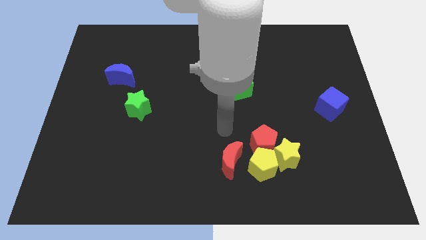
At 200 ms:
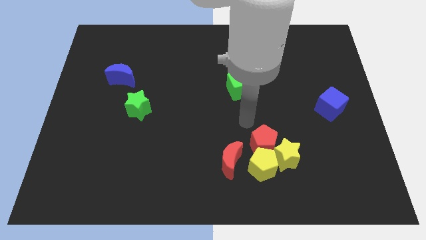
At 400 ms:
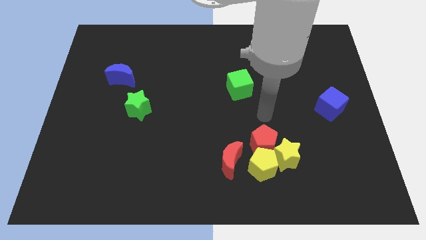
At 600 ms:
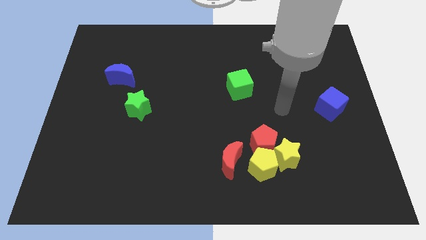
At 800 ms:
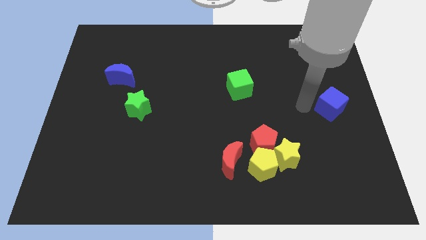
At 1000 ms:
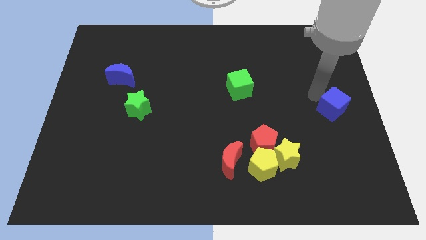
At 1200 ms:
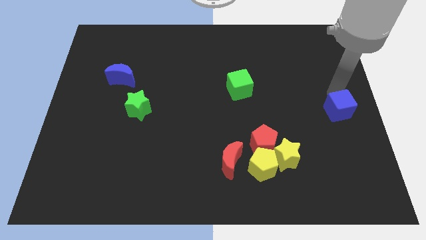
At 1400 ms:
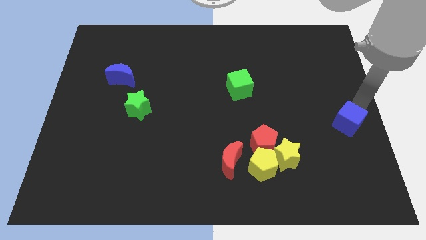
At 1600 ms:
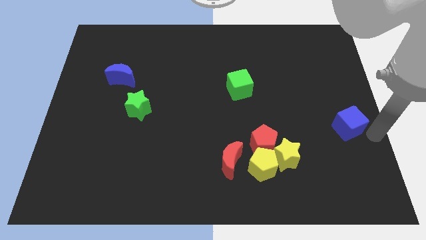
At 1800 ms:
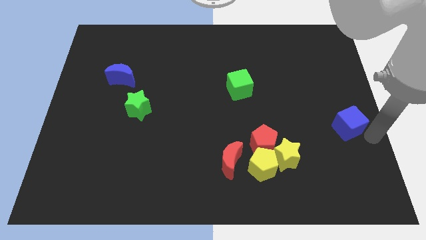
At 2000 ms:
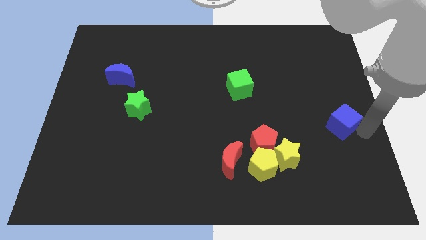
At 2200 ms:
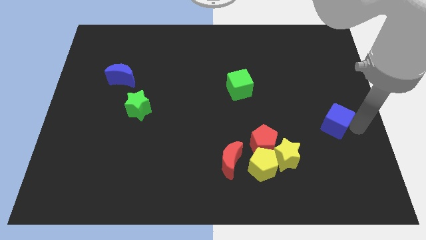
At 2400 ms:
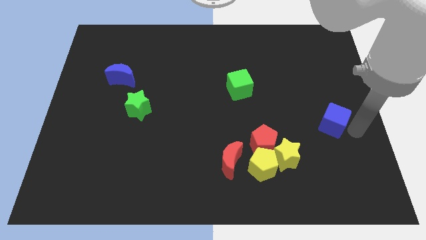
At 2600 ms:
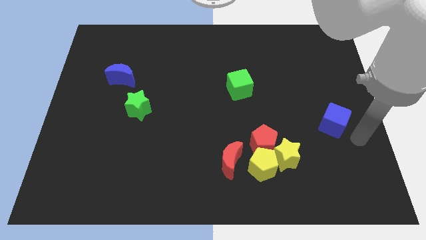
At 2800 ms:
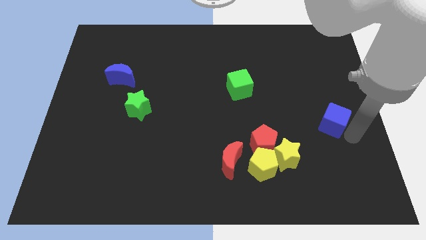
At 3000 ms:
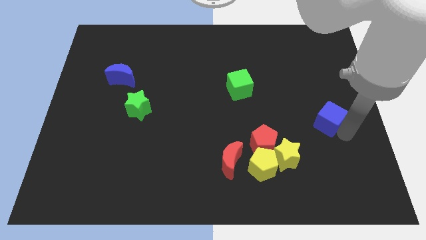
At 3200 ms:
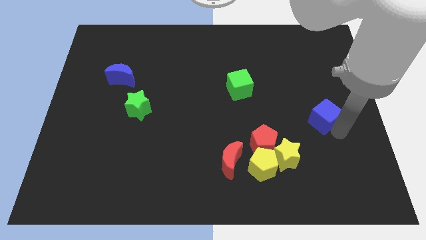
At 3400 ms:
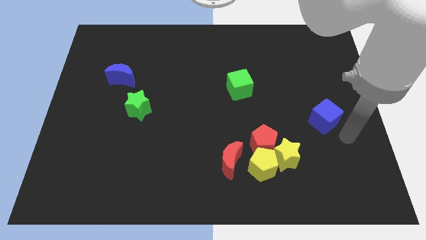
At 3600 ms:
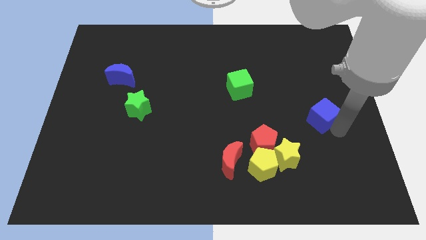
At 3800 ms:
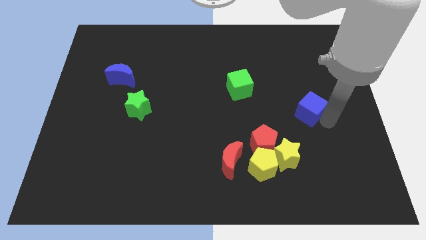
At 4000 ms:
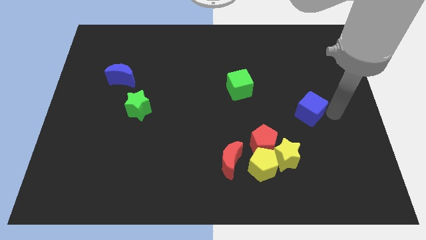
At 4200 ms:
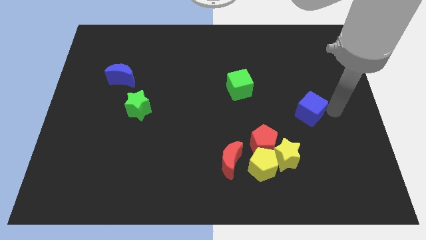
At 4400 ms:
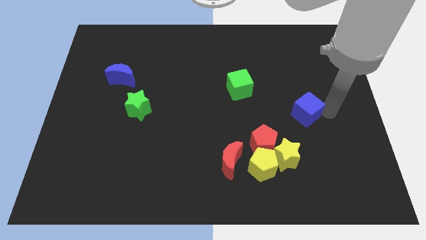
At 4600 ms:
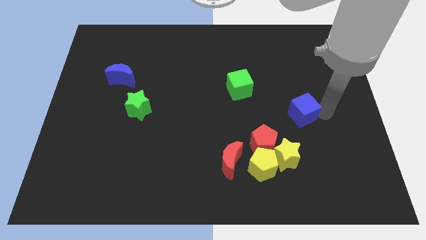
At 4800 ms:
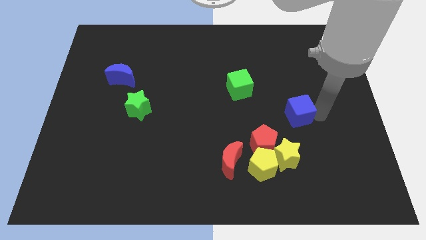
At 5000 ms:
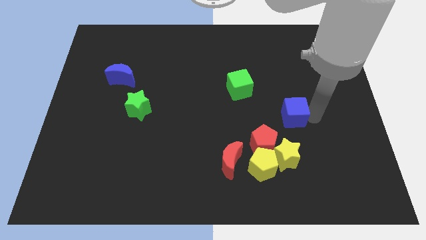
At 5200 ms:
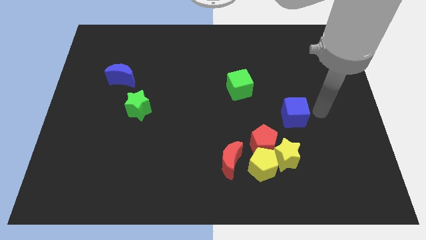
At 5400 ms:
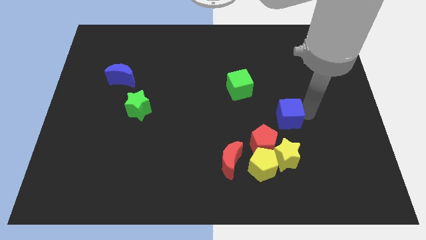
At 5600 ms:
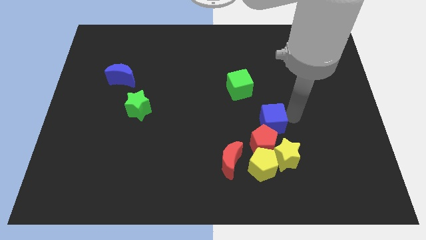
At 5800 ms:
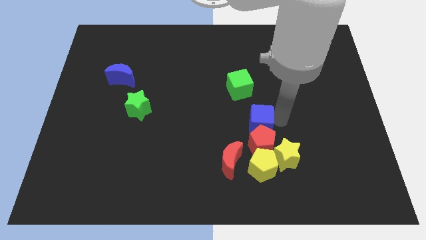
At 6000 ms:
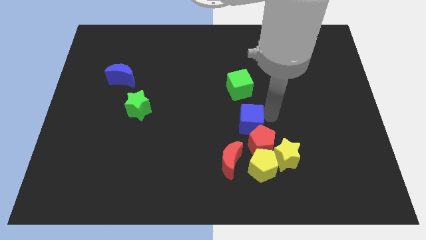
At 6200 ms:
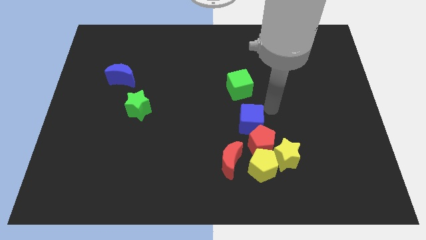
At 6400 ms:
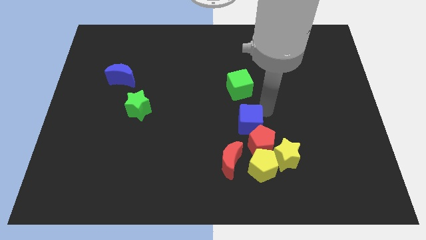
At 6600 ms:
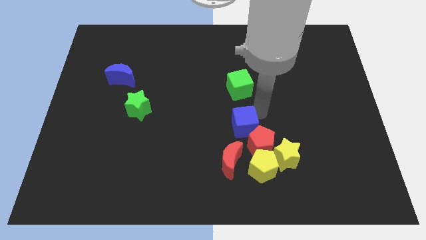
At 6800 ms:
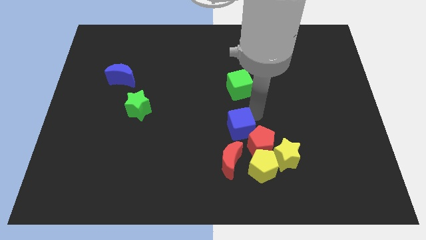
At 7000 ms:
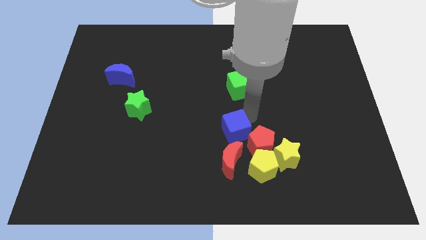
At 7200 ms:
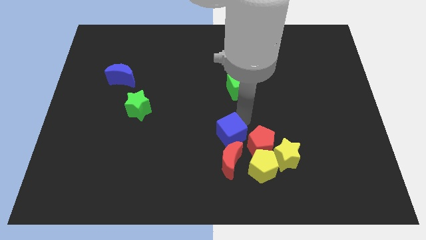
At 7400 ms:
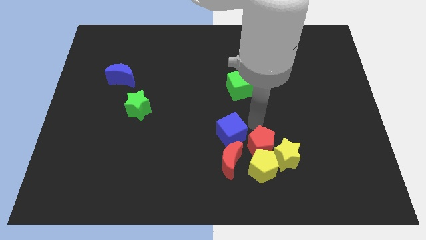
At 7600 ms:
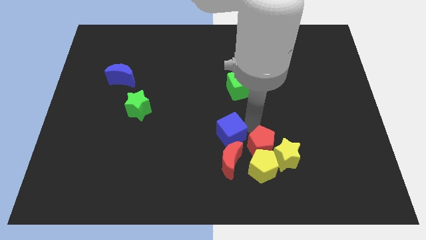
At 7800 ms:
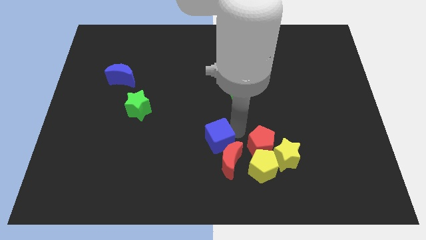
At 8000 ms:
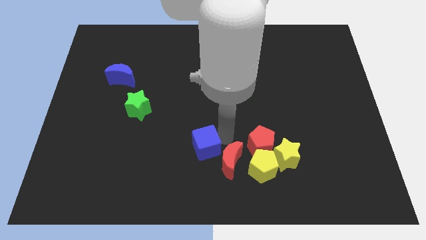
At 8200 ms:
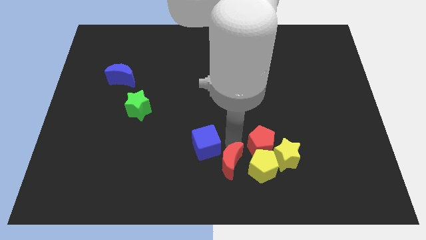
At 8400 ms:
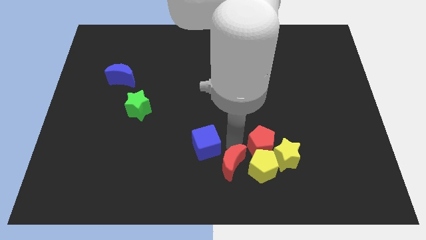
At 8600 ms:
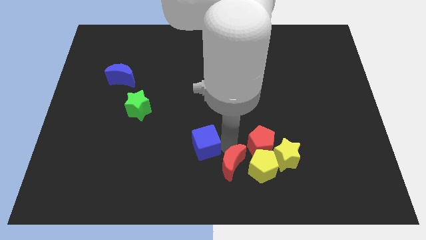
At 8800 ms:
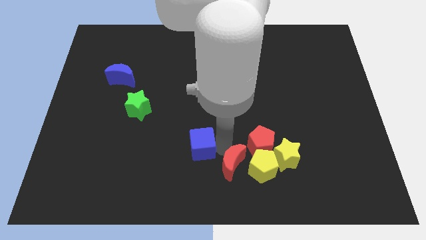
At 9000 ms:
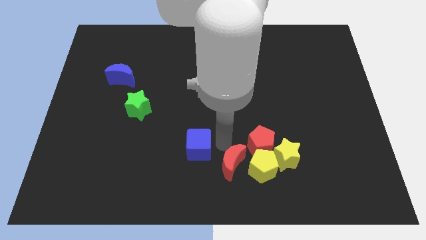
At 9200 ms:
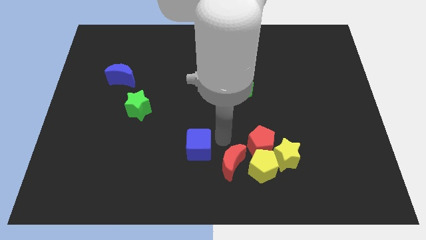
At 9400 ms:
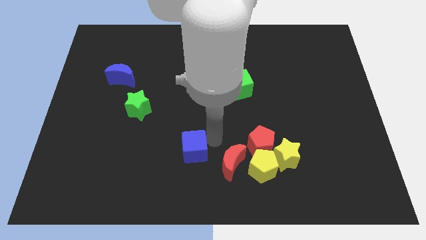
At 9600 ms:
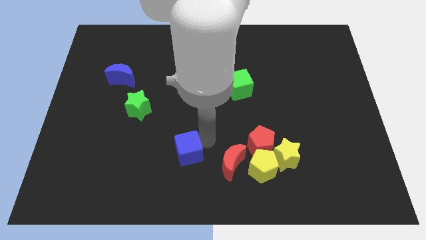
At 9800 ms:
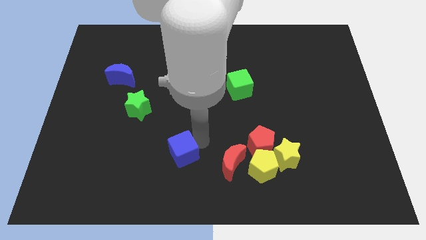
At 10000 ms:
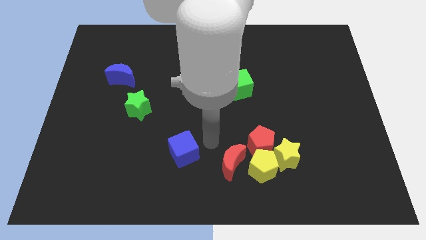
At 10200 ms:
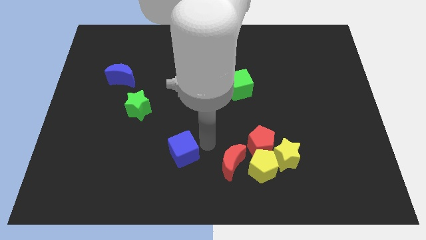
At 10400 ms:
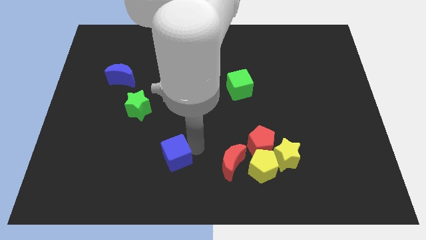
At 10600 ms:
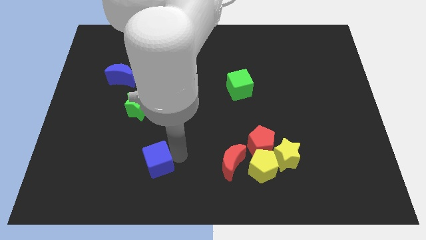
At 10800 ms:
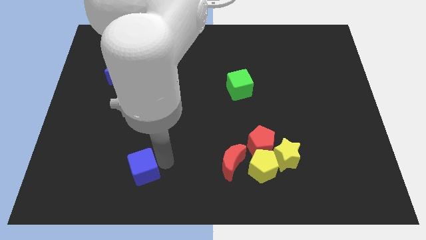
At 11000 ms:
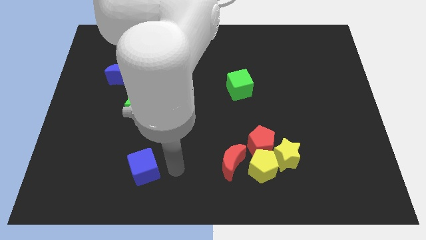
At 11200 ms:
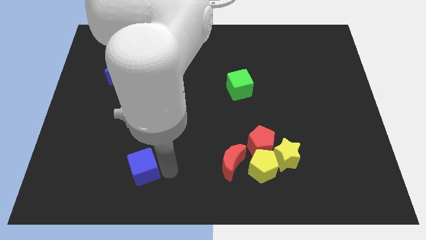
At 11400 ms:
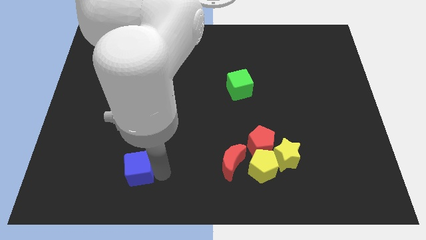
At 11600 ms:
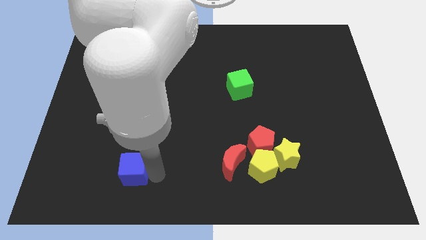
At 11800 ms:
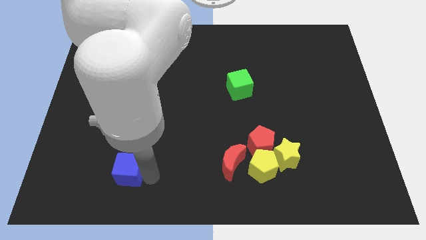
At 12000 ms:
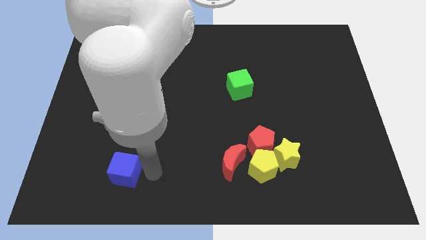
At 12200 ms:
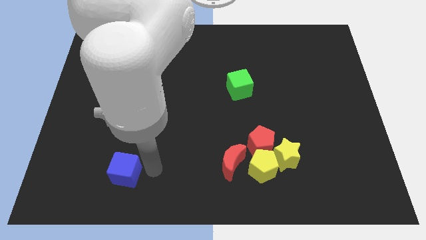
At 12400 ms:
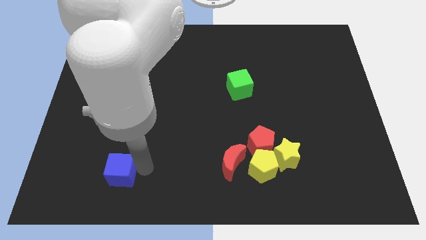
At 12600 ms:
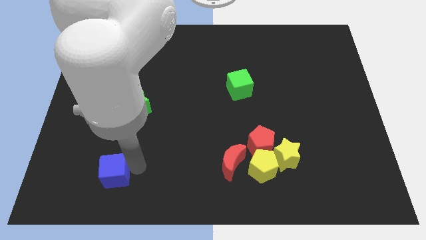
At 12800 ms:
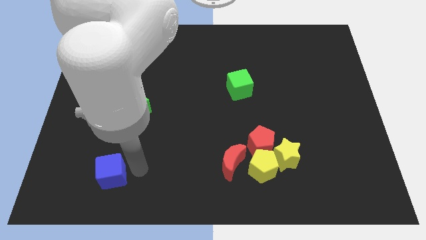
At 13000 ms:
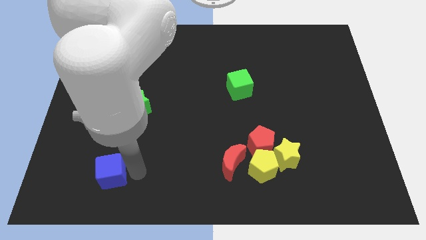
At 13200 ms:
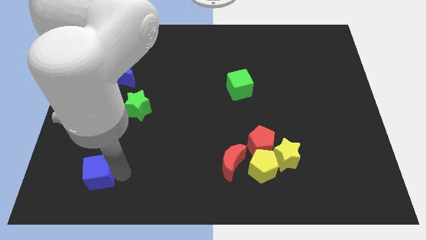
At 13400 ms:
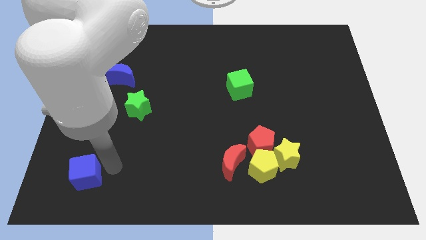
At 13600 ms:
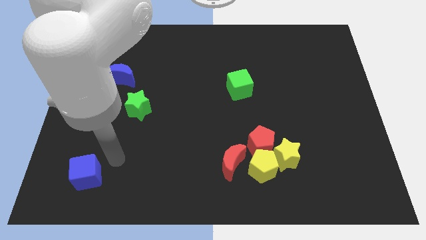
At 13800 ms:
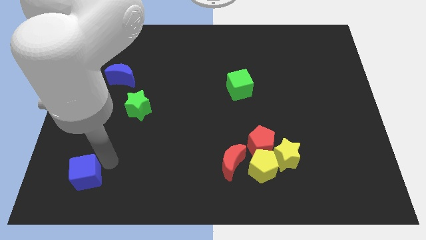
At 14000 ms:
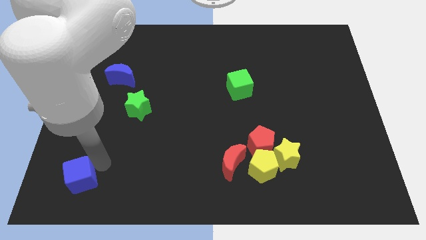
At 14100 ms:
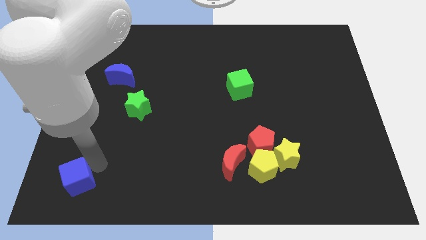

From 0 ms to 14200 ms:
push the blue cube to the bottom left

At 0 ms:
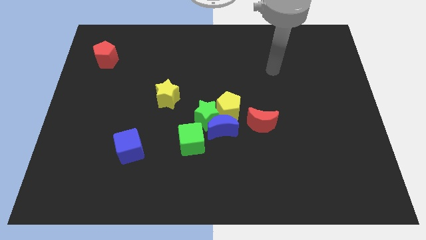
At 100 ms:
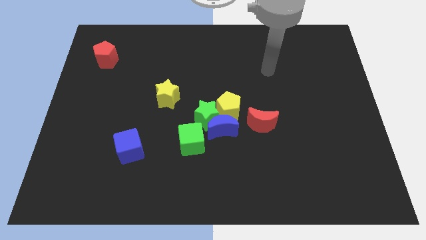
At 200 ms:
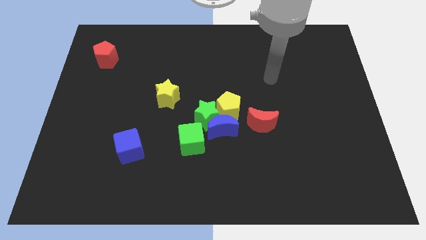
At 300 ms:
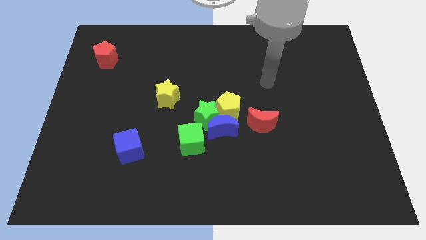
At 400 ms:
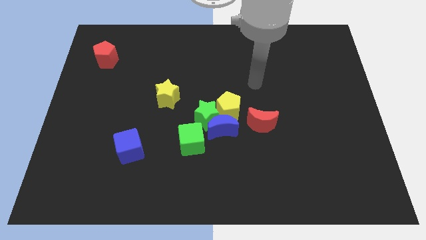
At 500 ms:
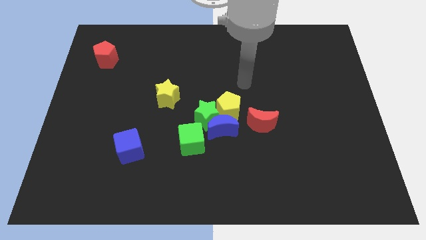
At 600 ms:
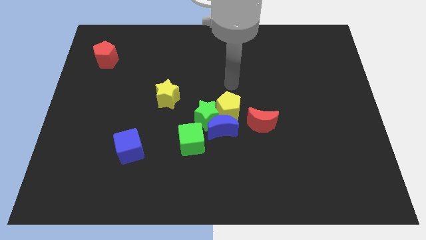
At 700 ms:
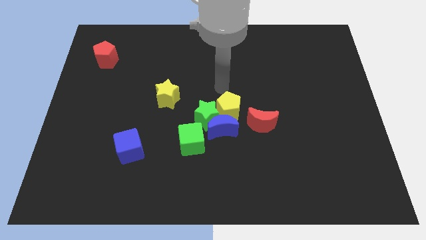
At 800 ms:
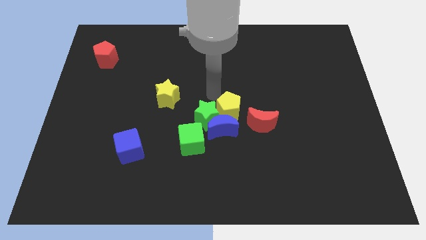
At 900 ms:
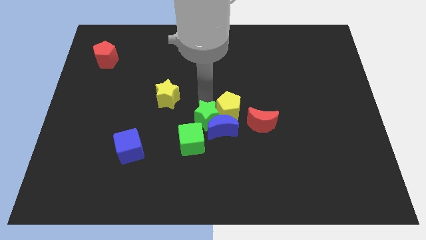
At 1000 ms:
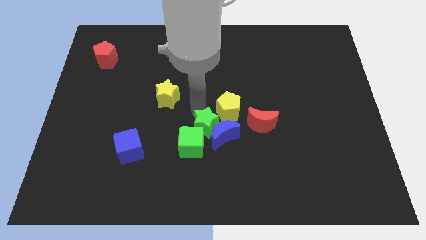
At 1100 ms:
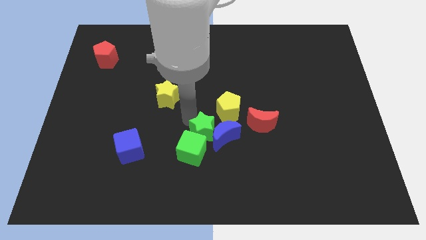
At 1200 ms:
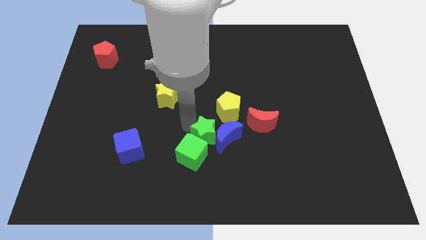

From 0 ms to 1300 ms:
put the green cube to the bottom side
